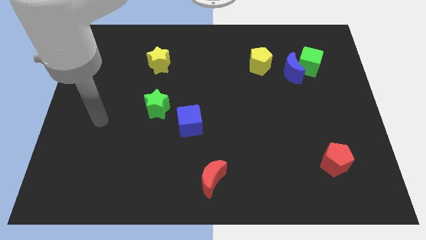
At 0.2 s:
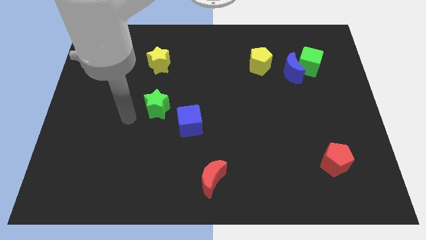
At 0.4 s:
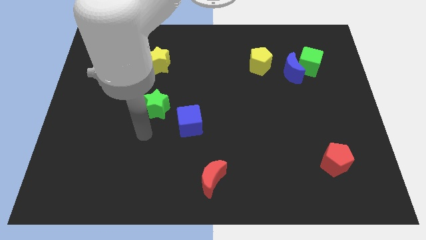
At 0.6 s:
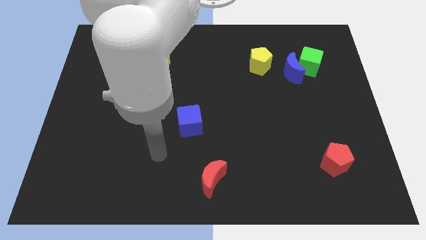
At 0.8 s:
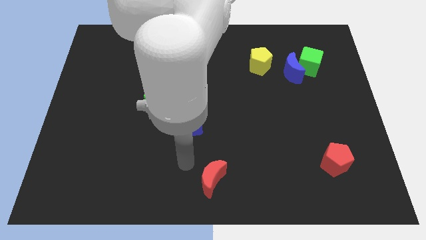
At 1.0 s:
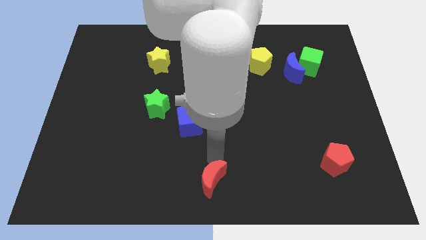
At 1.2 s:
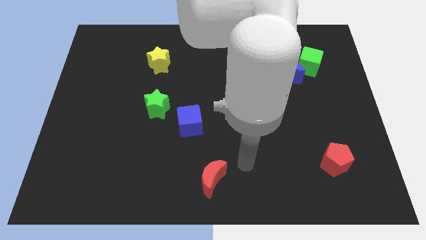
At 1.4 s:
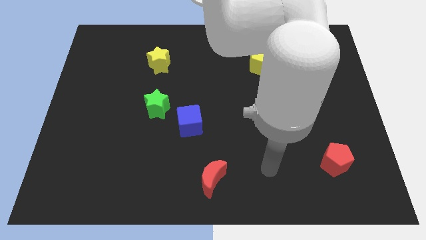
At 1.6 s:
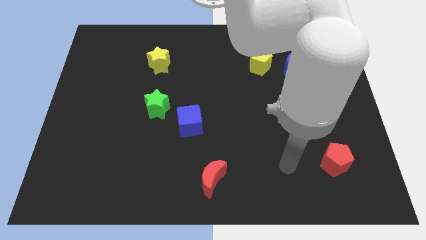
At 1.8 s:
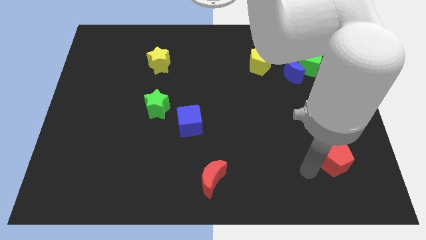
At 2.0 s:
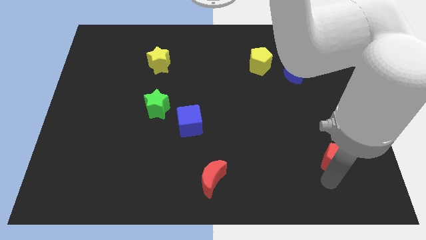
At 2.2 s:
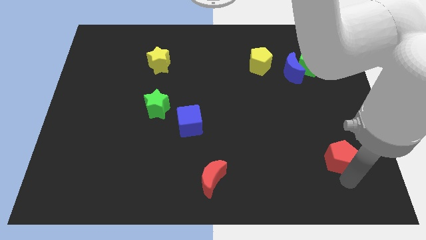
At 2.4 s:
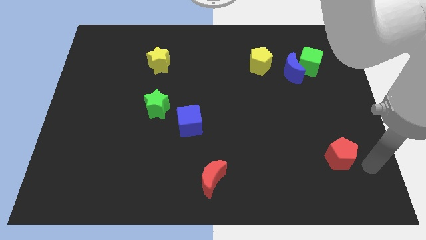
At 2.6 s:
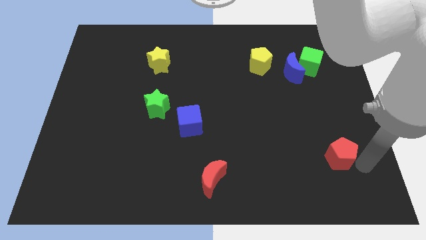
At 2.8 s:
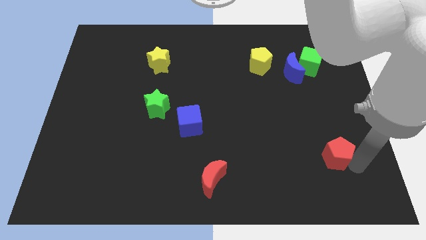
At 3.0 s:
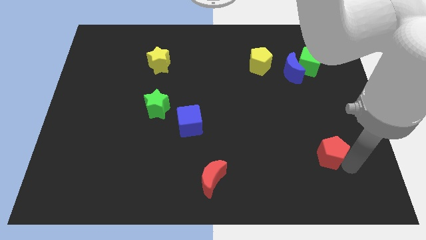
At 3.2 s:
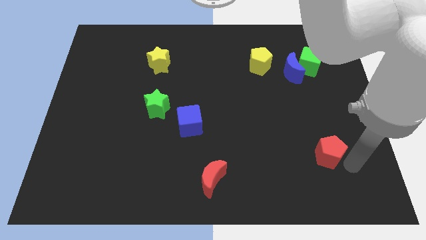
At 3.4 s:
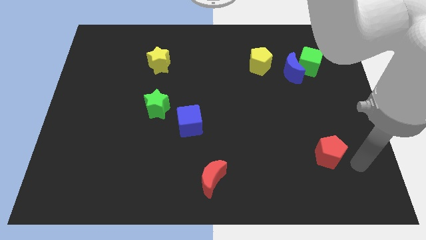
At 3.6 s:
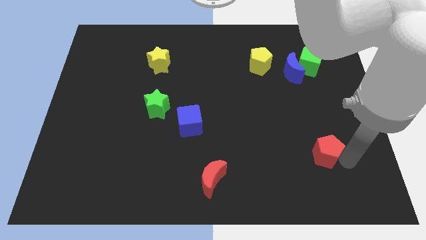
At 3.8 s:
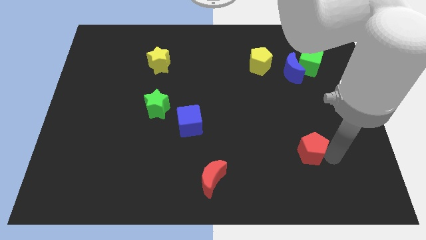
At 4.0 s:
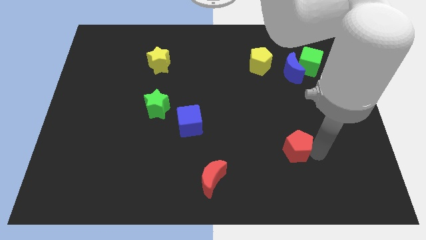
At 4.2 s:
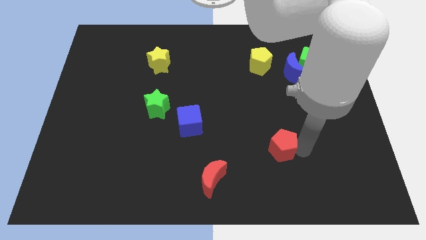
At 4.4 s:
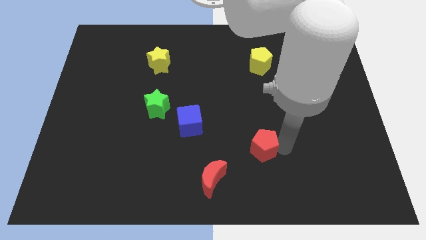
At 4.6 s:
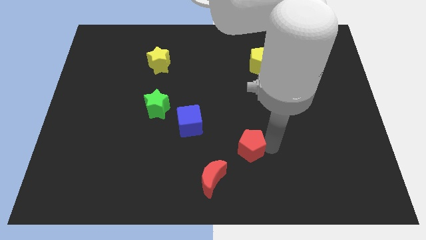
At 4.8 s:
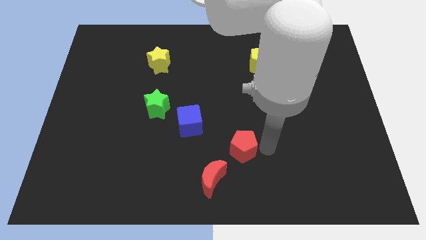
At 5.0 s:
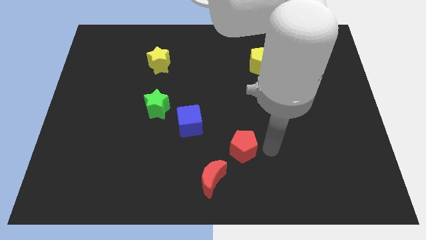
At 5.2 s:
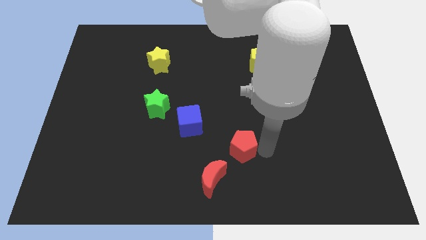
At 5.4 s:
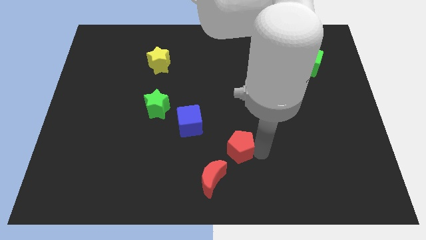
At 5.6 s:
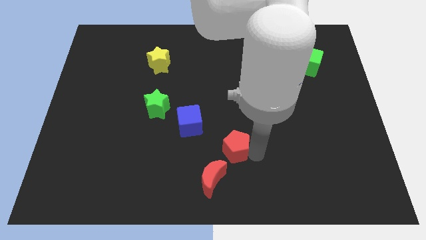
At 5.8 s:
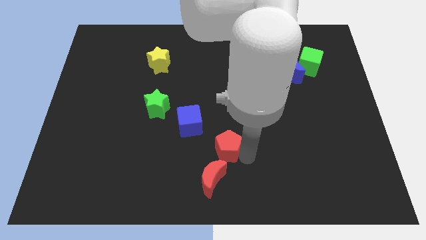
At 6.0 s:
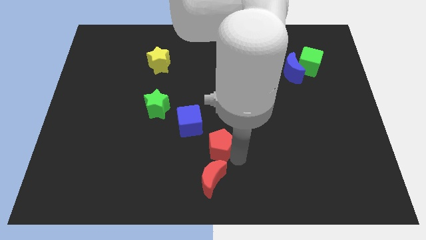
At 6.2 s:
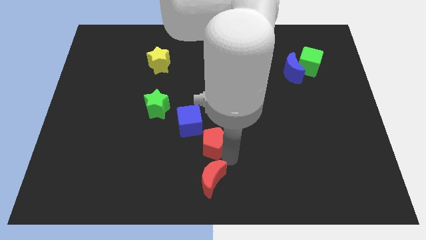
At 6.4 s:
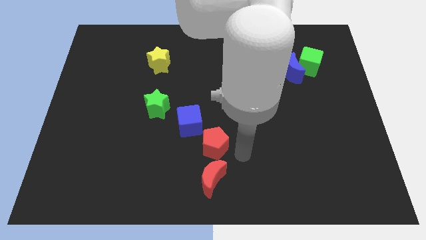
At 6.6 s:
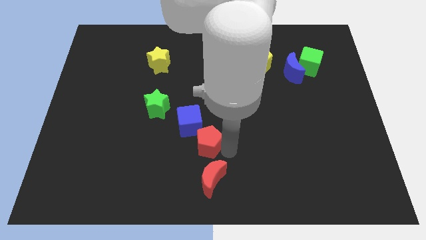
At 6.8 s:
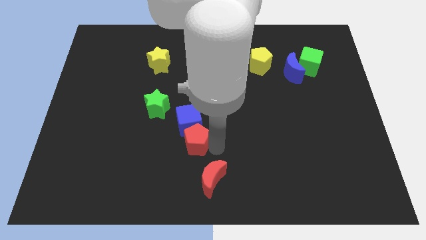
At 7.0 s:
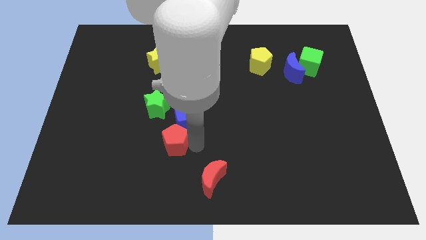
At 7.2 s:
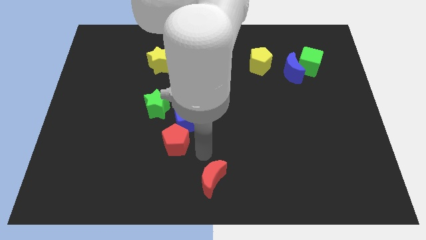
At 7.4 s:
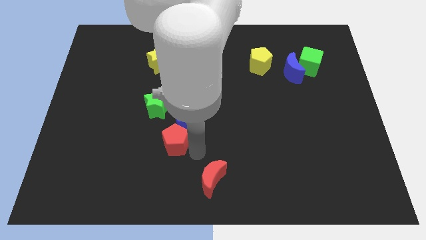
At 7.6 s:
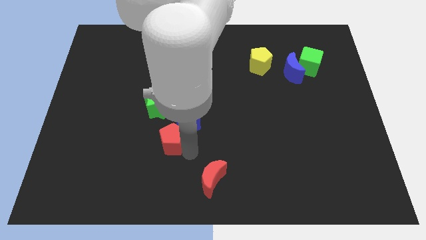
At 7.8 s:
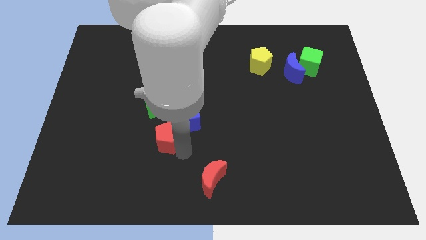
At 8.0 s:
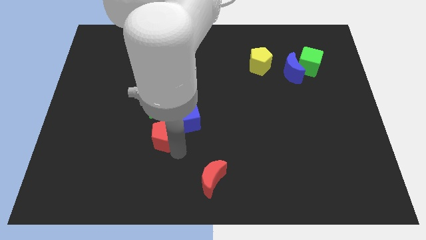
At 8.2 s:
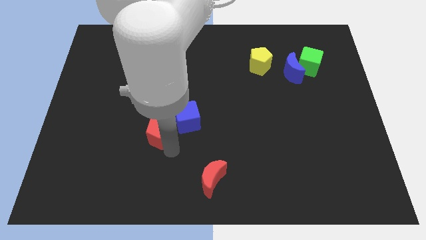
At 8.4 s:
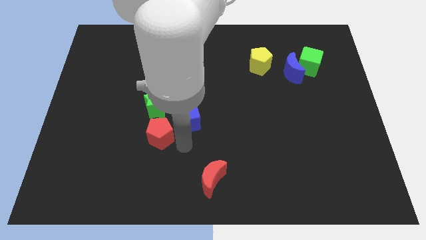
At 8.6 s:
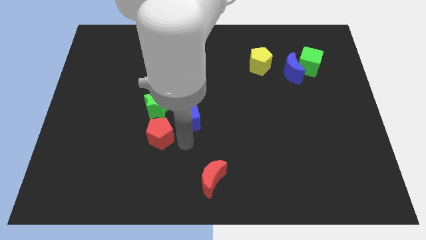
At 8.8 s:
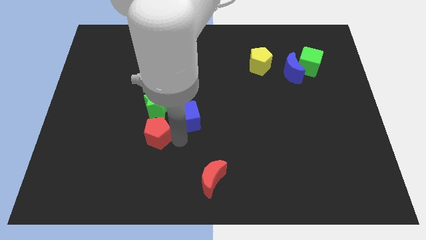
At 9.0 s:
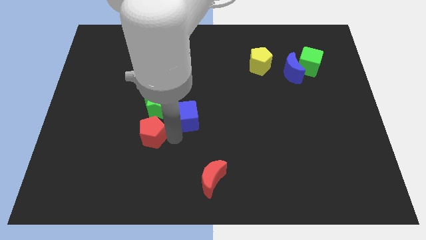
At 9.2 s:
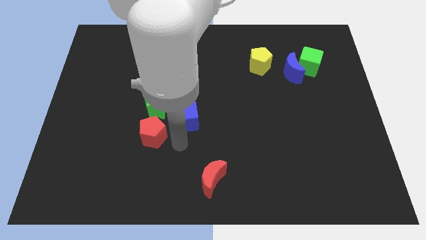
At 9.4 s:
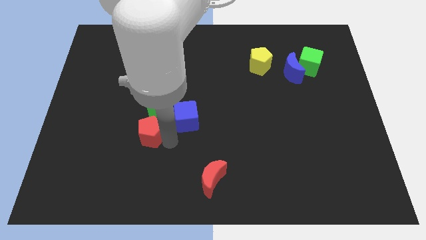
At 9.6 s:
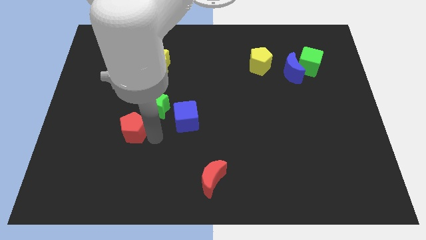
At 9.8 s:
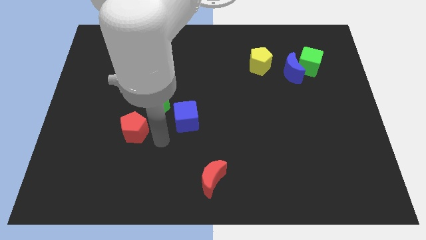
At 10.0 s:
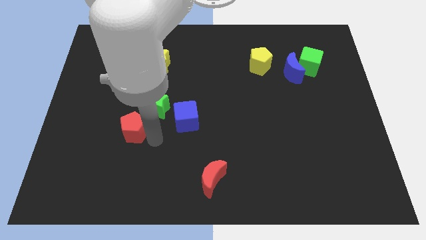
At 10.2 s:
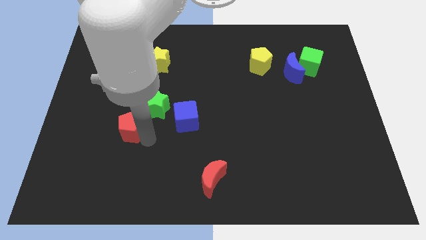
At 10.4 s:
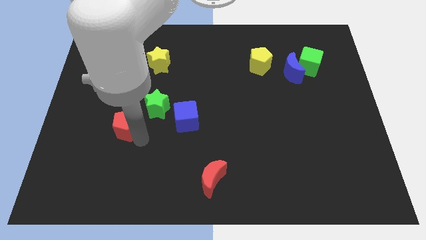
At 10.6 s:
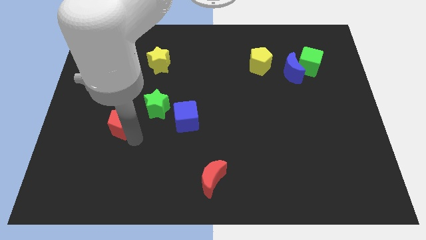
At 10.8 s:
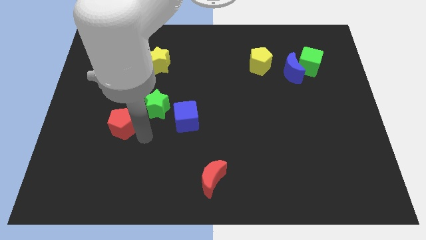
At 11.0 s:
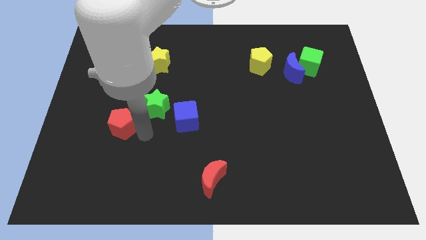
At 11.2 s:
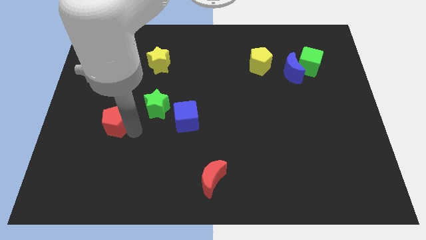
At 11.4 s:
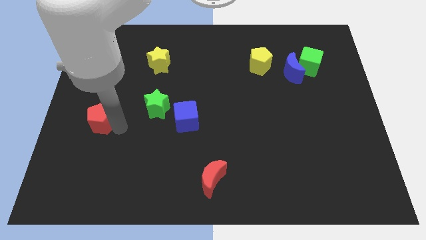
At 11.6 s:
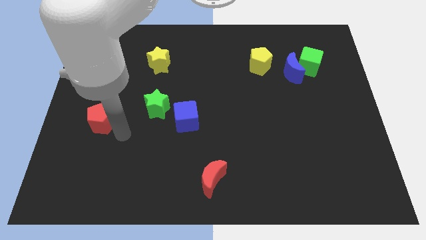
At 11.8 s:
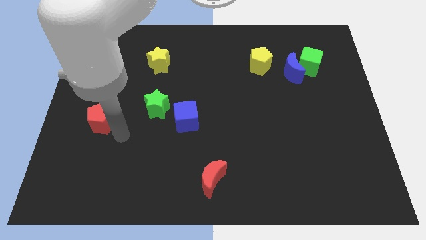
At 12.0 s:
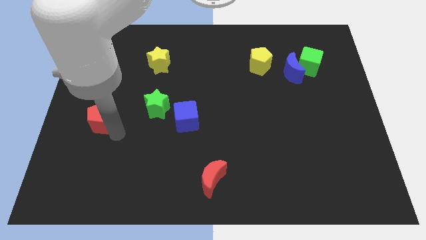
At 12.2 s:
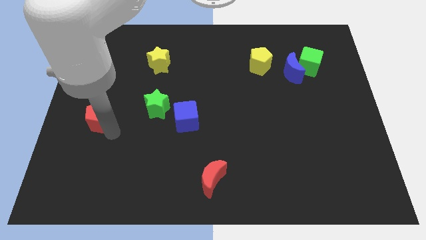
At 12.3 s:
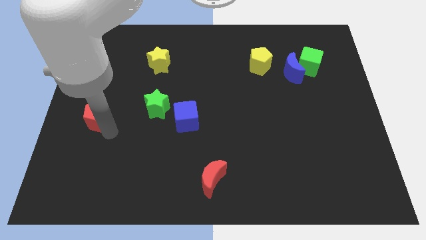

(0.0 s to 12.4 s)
slide the red pentagon to the left side

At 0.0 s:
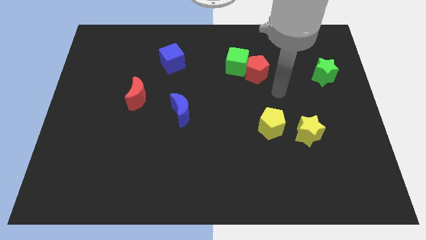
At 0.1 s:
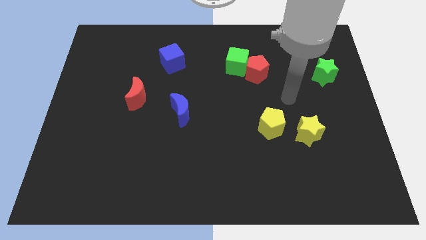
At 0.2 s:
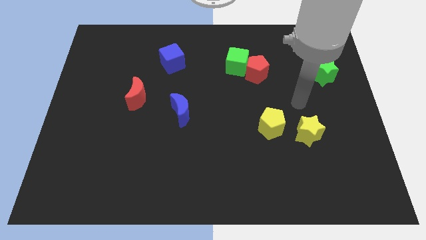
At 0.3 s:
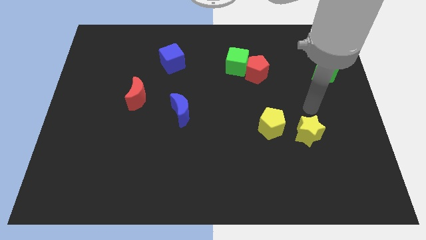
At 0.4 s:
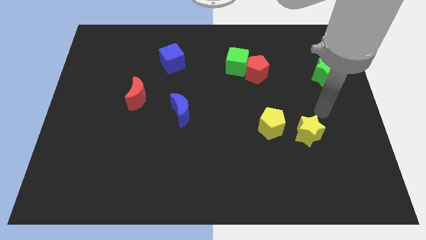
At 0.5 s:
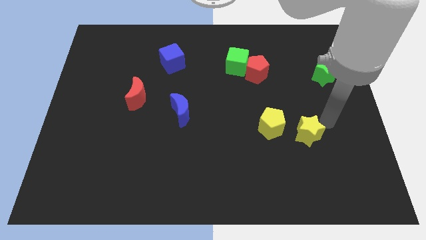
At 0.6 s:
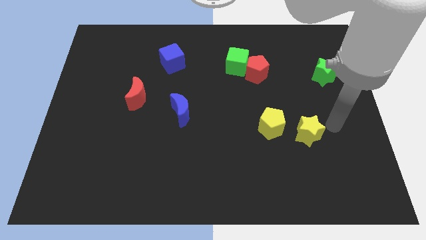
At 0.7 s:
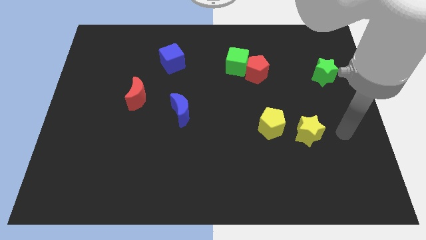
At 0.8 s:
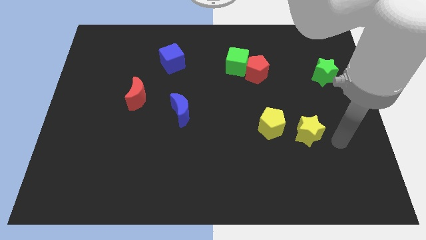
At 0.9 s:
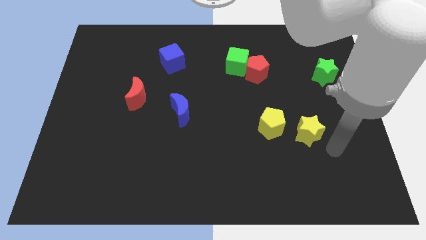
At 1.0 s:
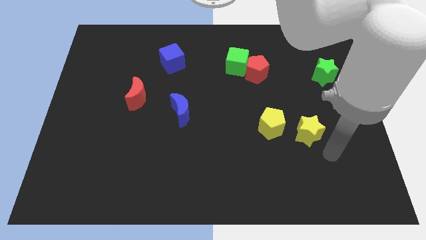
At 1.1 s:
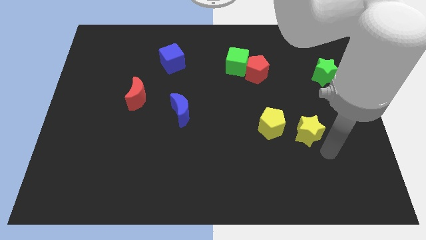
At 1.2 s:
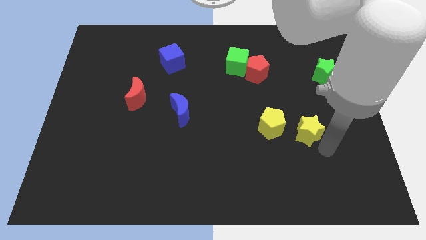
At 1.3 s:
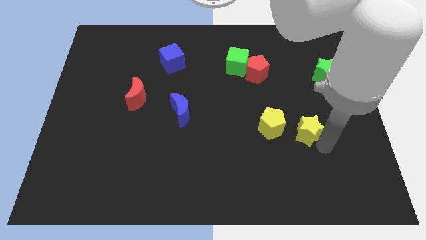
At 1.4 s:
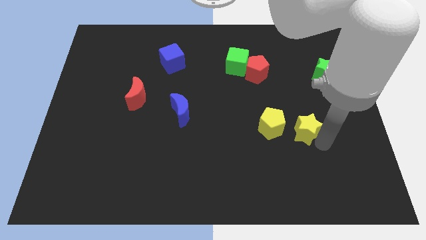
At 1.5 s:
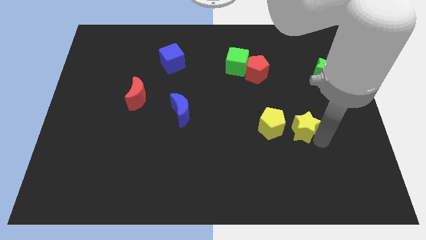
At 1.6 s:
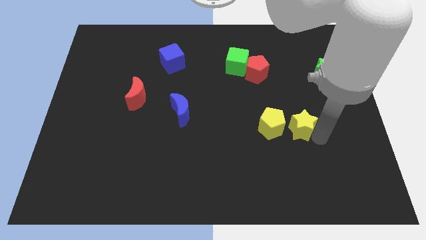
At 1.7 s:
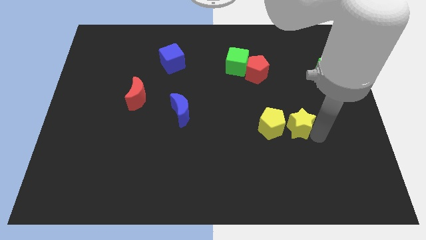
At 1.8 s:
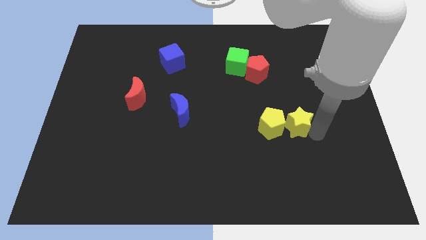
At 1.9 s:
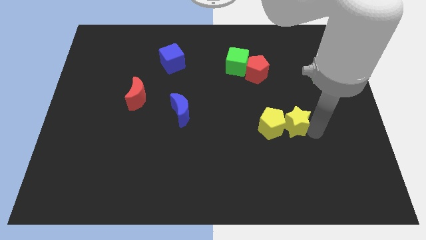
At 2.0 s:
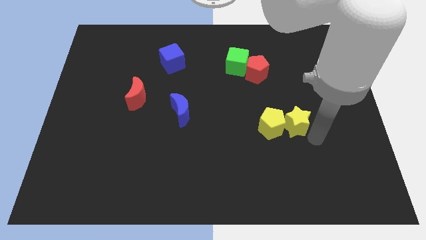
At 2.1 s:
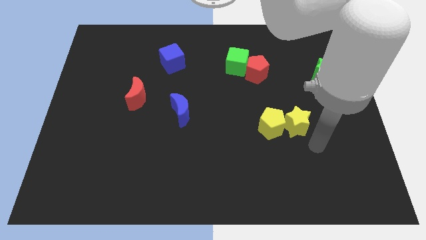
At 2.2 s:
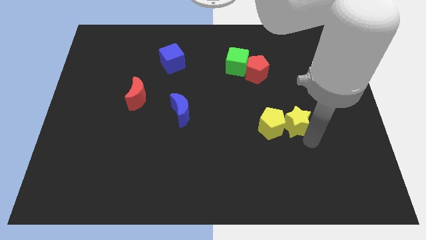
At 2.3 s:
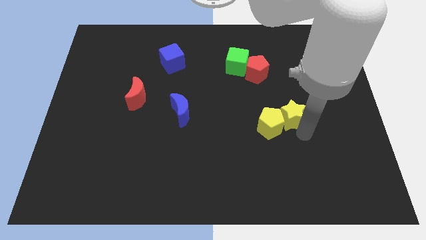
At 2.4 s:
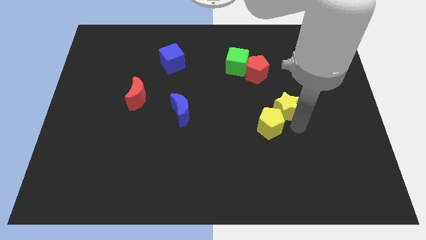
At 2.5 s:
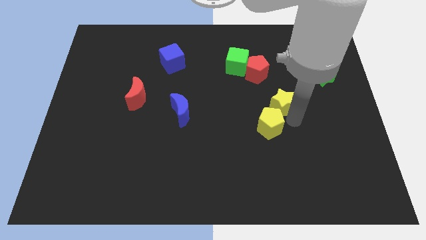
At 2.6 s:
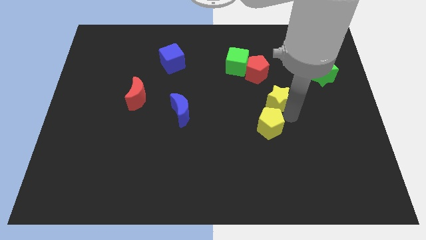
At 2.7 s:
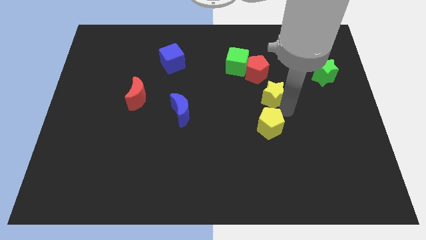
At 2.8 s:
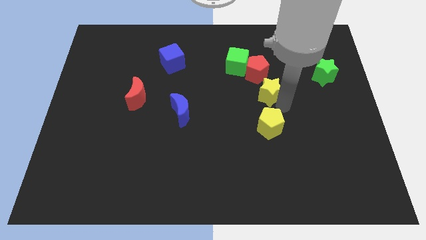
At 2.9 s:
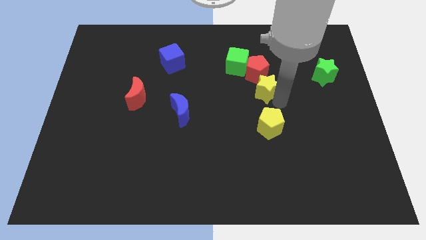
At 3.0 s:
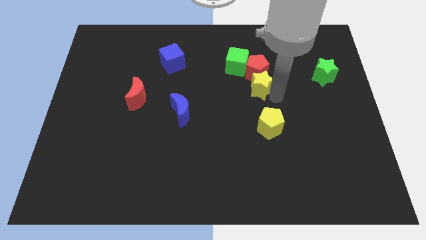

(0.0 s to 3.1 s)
move the yellow star to the middle
